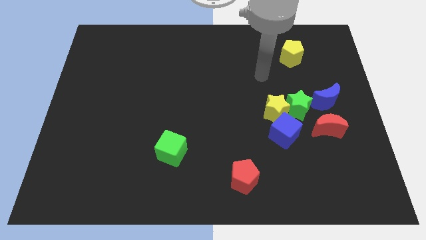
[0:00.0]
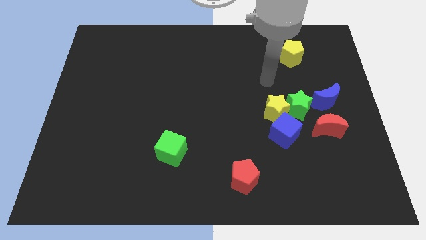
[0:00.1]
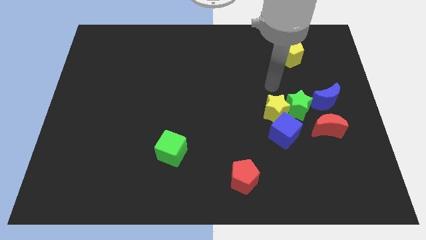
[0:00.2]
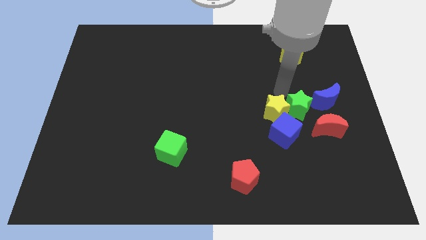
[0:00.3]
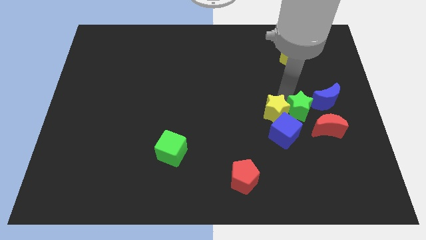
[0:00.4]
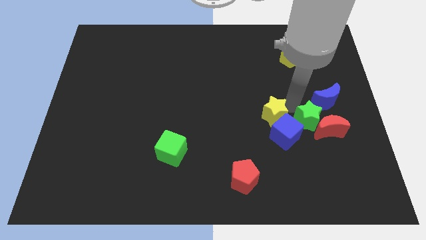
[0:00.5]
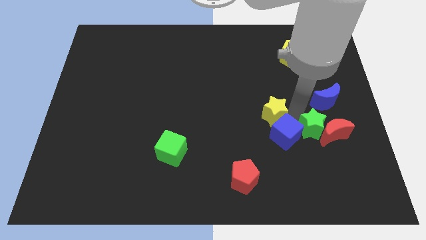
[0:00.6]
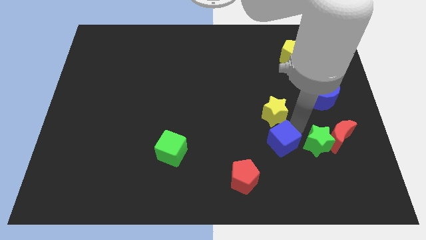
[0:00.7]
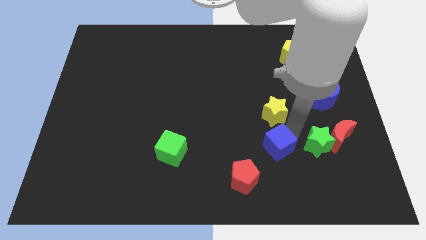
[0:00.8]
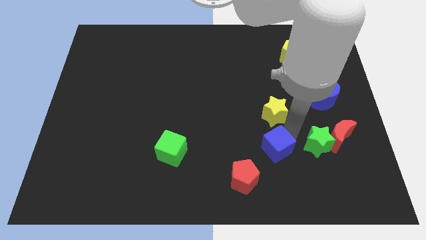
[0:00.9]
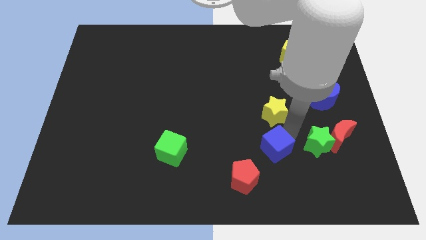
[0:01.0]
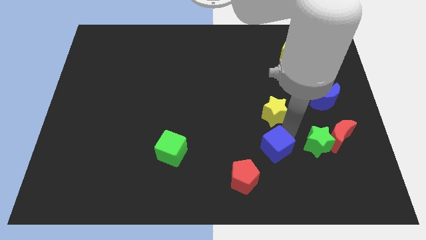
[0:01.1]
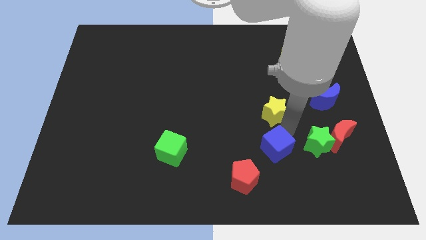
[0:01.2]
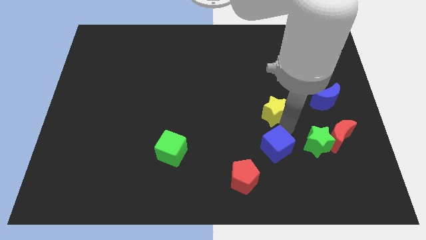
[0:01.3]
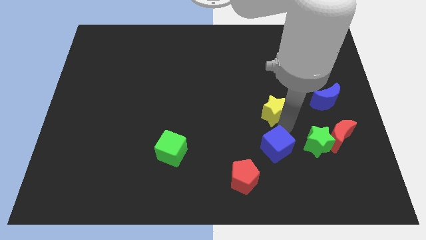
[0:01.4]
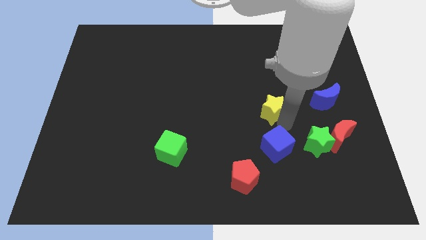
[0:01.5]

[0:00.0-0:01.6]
separate the yellow star from the green star and blue cube

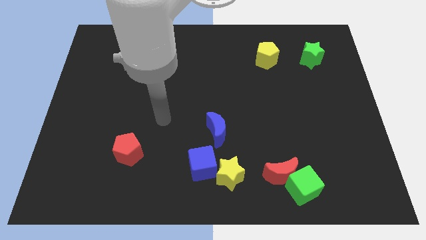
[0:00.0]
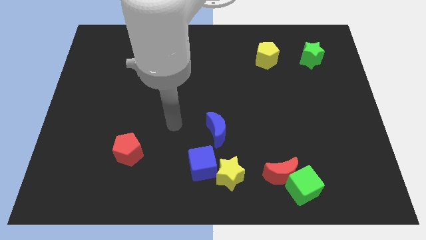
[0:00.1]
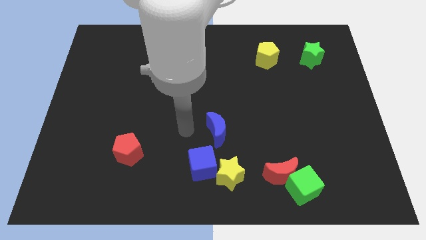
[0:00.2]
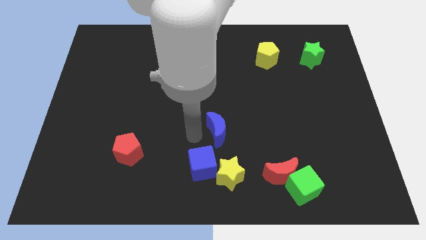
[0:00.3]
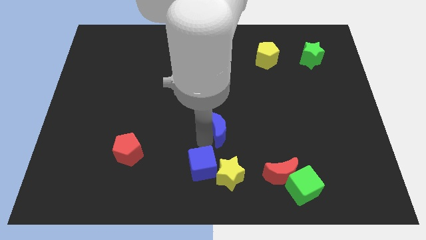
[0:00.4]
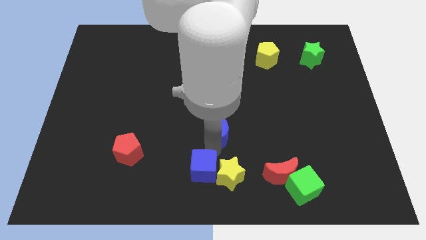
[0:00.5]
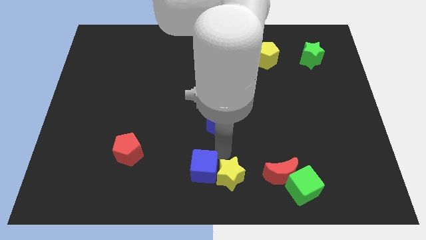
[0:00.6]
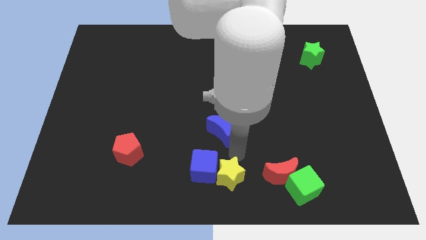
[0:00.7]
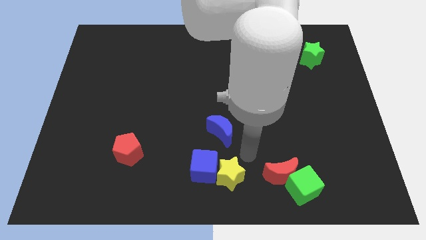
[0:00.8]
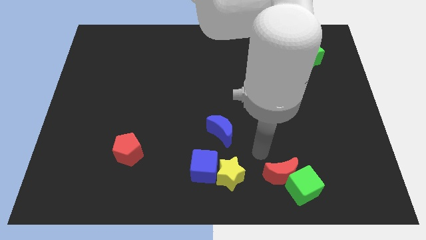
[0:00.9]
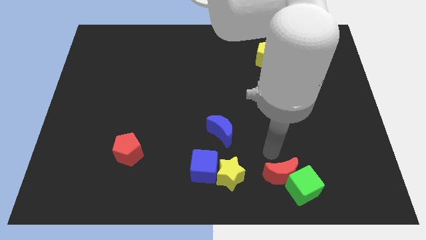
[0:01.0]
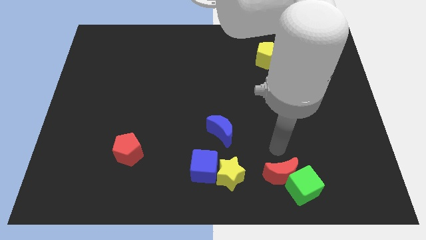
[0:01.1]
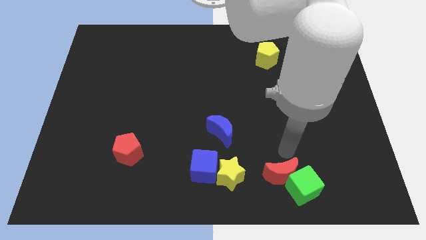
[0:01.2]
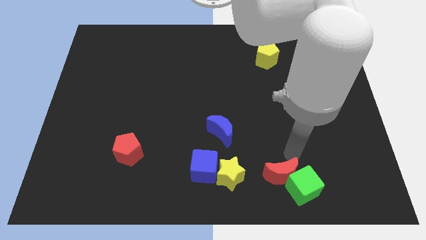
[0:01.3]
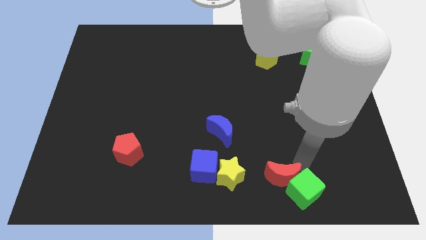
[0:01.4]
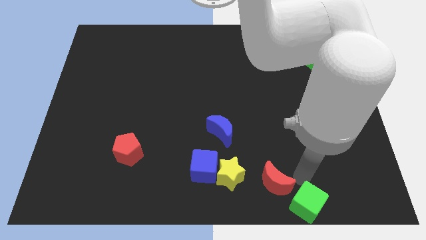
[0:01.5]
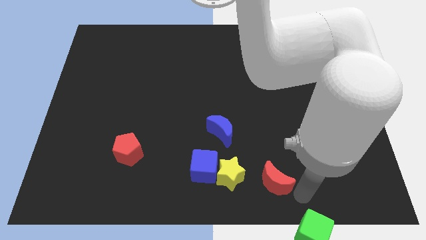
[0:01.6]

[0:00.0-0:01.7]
separate the red moon from the green cube

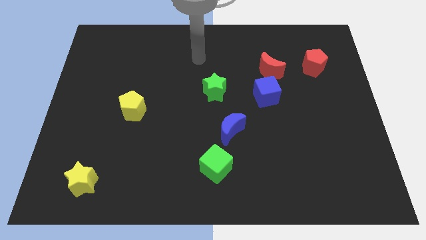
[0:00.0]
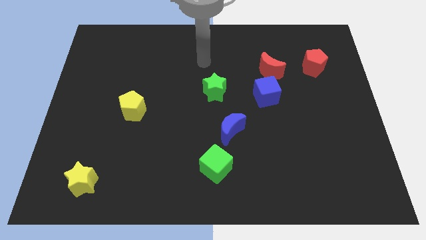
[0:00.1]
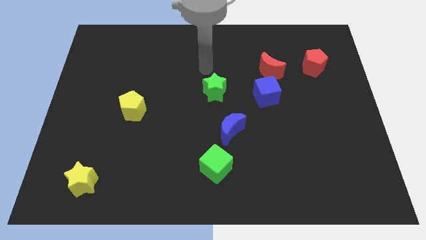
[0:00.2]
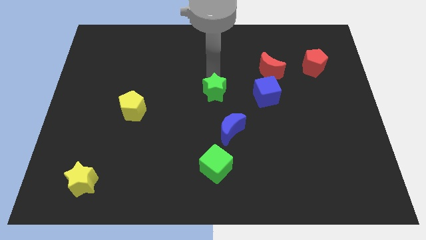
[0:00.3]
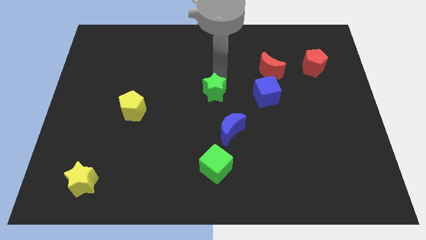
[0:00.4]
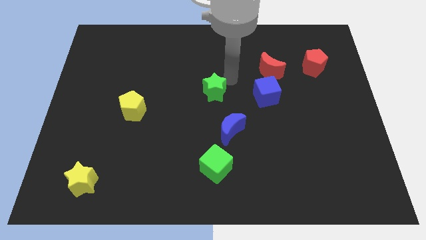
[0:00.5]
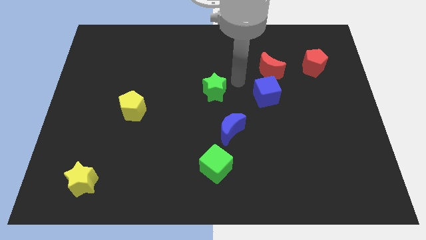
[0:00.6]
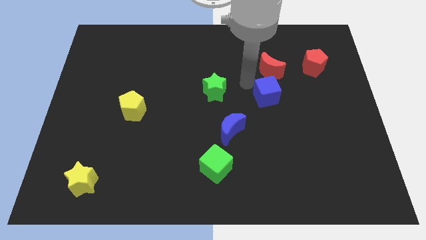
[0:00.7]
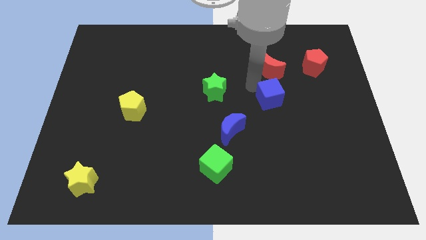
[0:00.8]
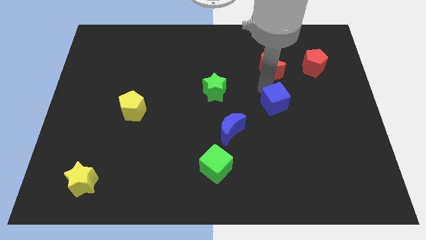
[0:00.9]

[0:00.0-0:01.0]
pull the red moon apart from the blue cube

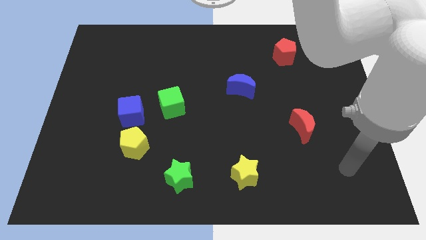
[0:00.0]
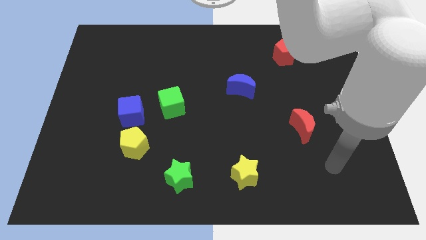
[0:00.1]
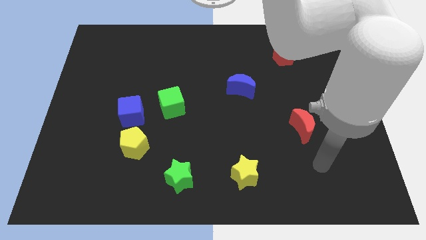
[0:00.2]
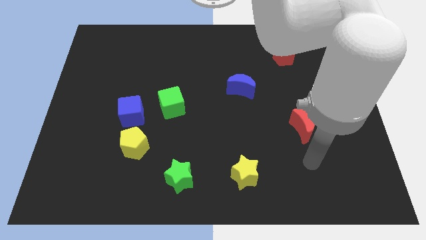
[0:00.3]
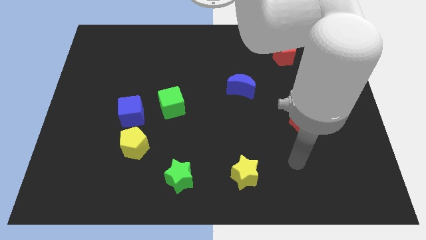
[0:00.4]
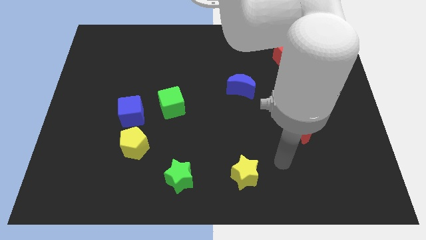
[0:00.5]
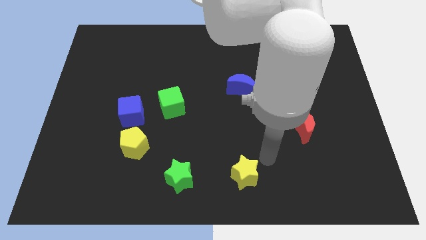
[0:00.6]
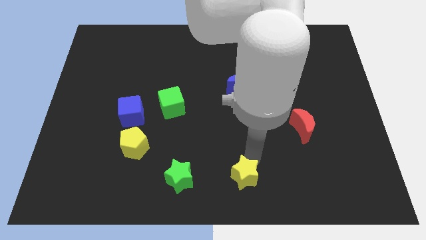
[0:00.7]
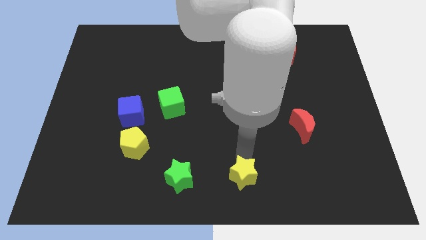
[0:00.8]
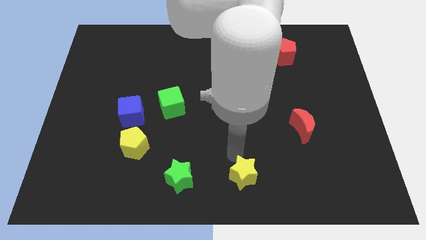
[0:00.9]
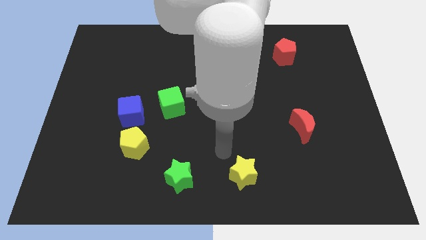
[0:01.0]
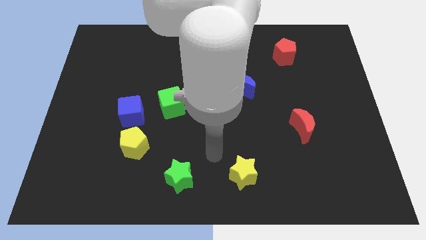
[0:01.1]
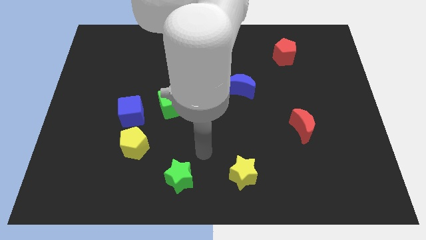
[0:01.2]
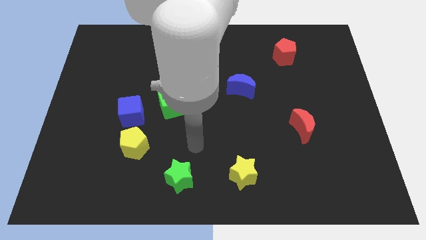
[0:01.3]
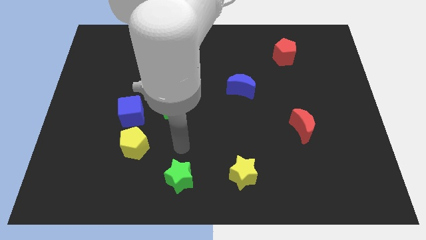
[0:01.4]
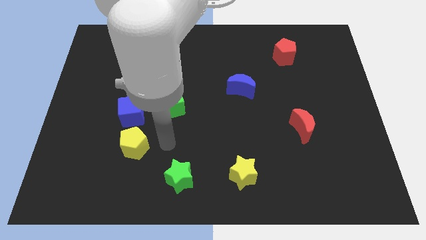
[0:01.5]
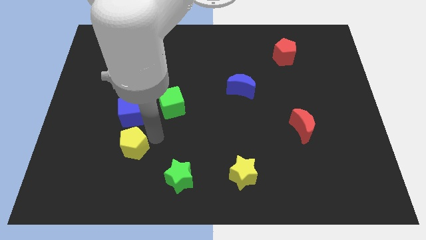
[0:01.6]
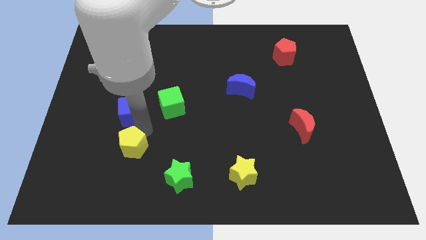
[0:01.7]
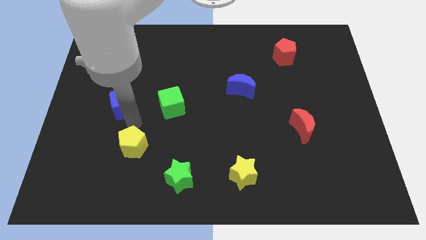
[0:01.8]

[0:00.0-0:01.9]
pull the yellow pentagon apart from the blue cube

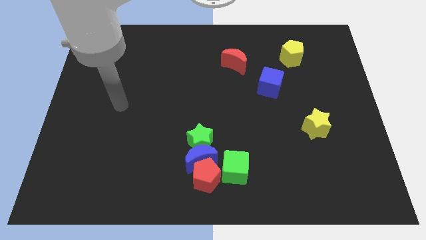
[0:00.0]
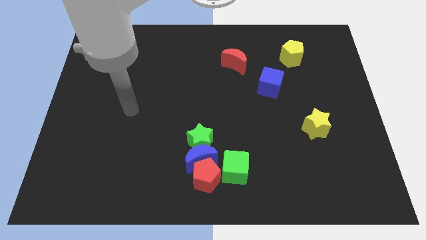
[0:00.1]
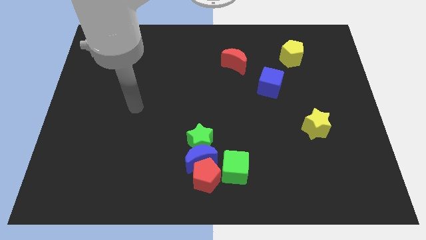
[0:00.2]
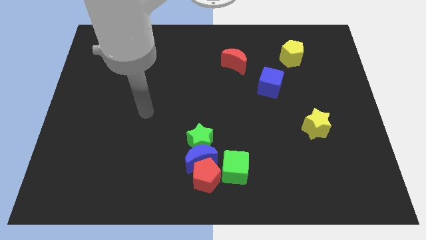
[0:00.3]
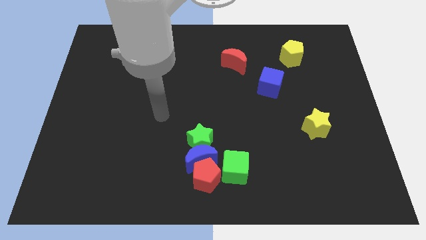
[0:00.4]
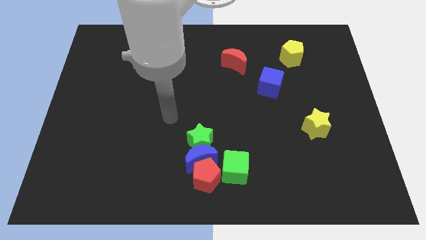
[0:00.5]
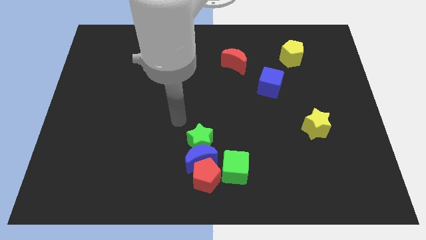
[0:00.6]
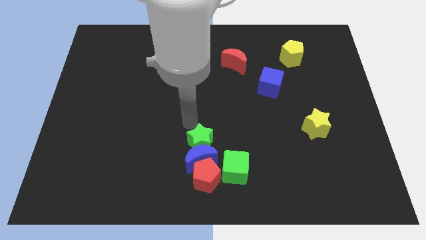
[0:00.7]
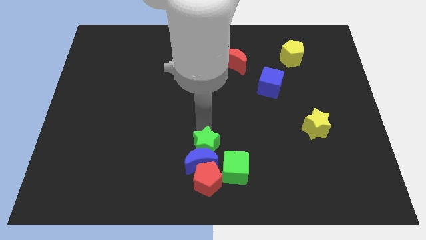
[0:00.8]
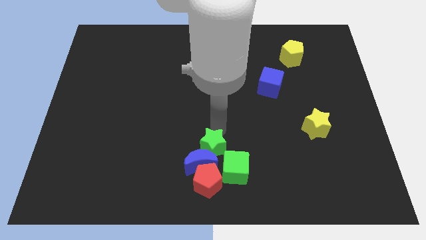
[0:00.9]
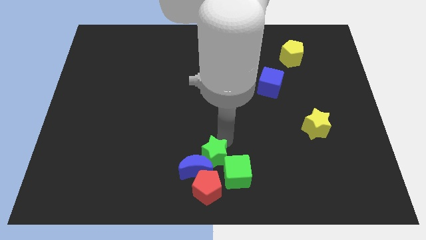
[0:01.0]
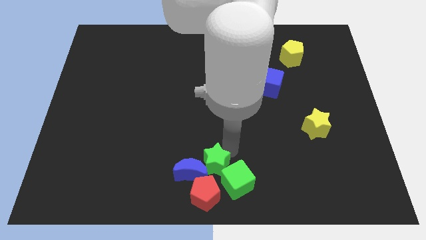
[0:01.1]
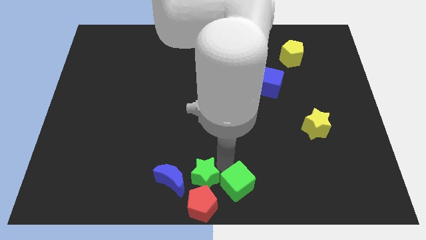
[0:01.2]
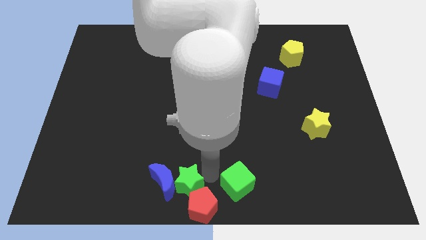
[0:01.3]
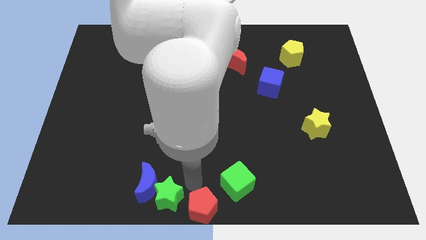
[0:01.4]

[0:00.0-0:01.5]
separate the blue moon from the green star, red pentagon, and green cube

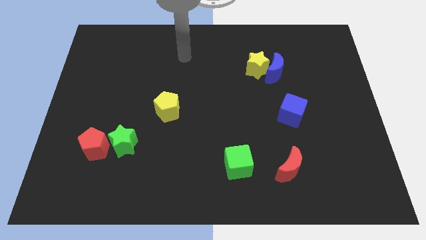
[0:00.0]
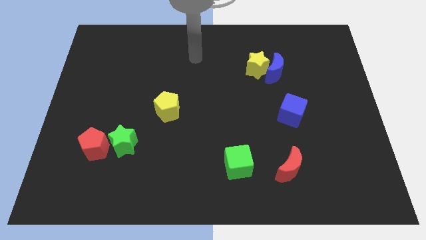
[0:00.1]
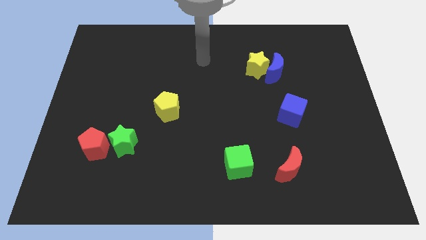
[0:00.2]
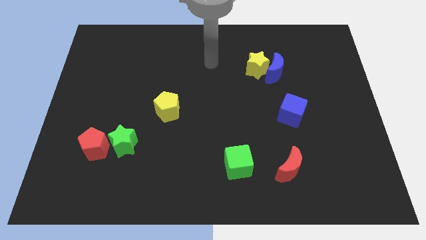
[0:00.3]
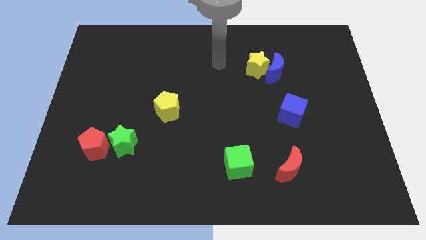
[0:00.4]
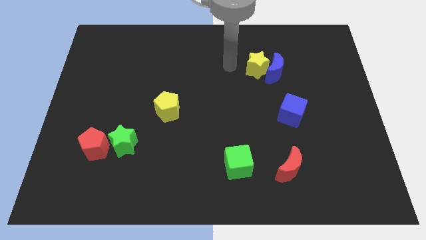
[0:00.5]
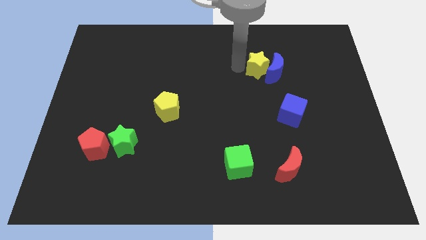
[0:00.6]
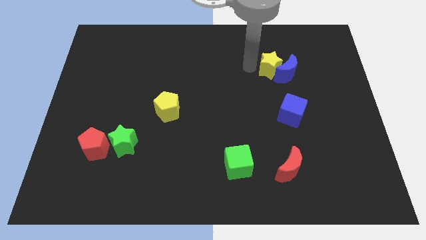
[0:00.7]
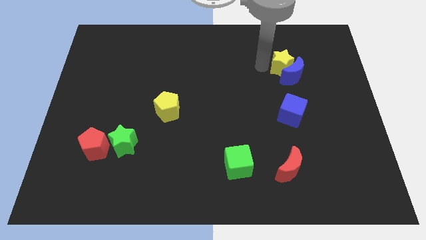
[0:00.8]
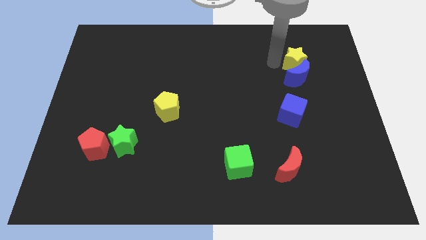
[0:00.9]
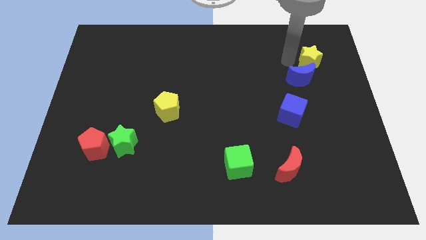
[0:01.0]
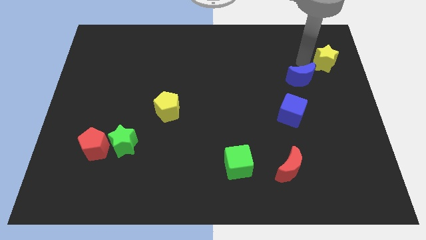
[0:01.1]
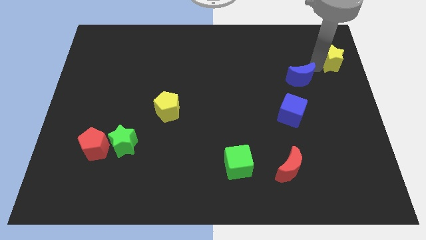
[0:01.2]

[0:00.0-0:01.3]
move the blue moon away from the yellow star

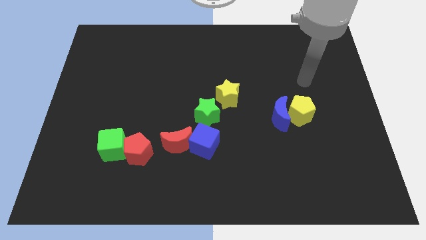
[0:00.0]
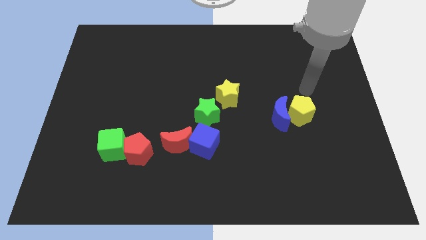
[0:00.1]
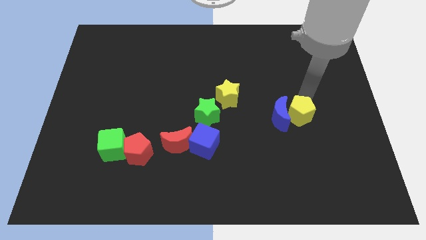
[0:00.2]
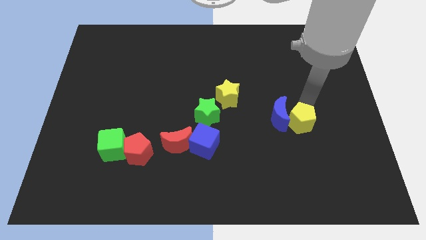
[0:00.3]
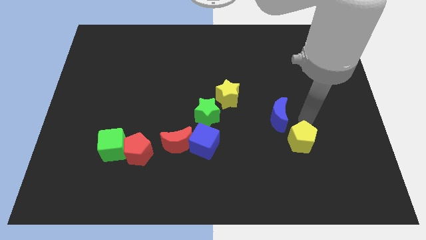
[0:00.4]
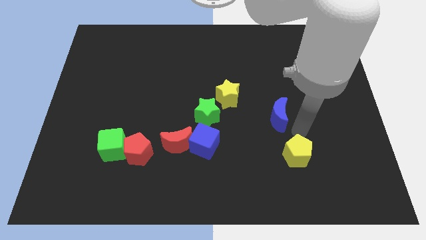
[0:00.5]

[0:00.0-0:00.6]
pull the blue moon apart from the yellow pentagon
